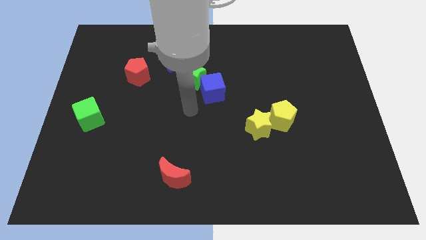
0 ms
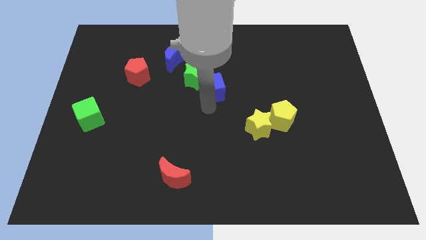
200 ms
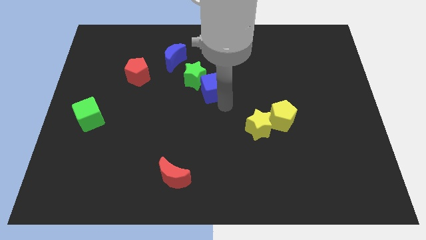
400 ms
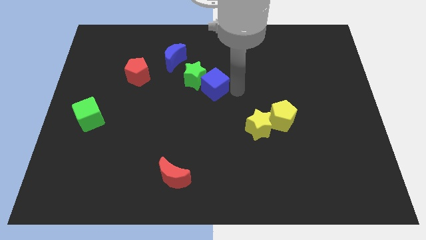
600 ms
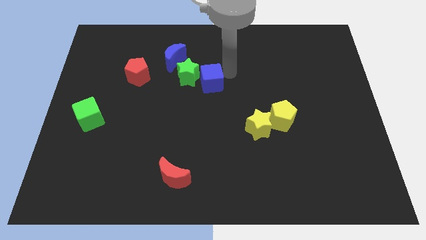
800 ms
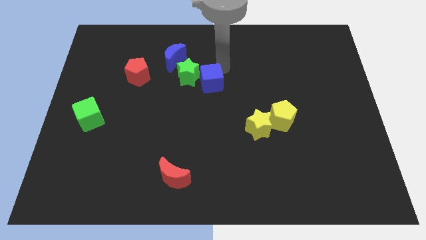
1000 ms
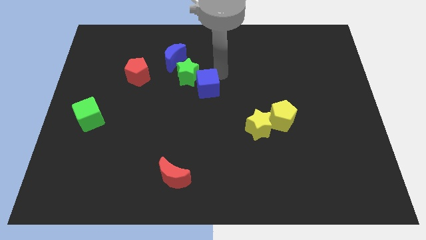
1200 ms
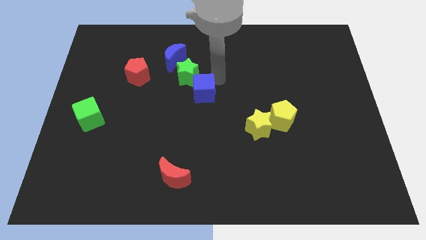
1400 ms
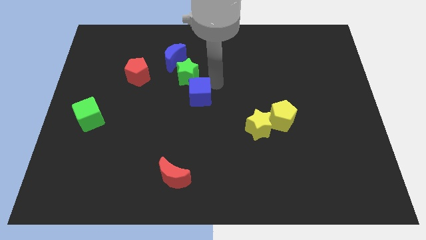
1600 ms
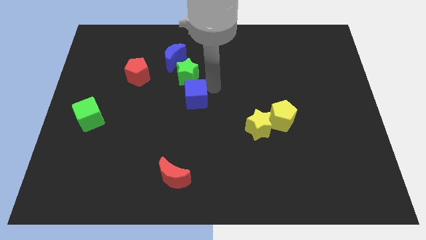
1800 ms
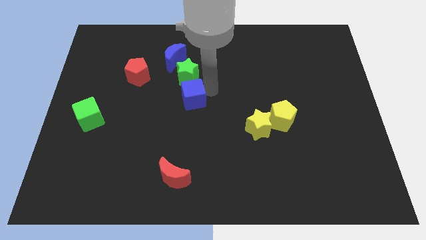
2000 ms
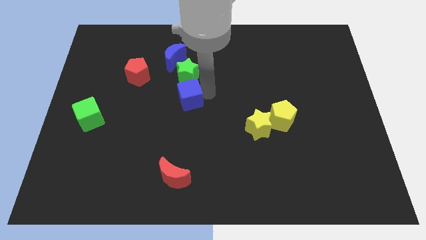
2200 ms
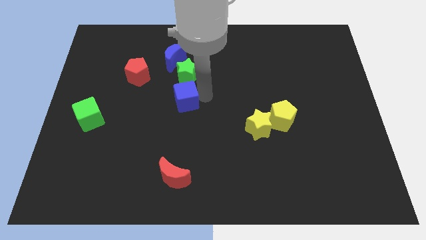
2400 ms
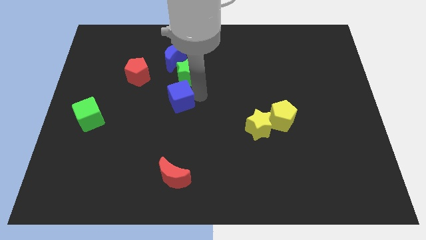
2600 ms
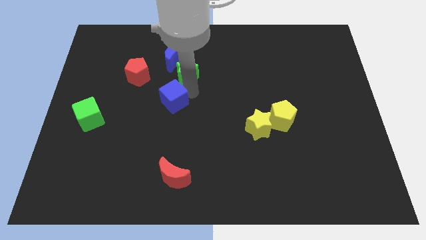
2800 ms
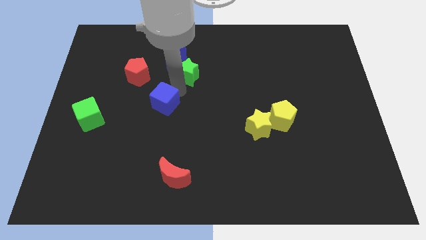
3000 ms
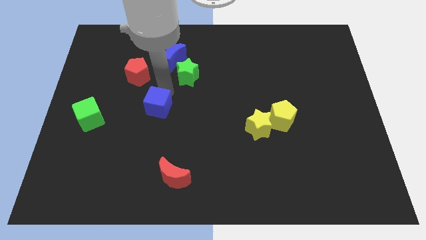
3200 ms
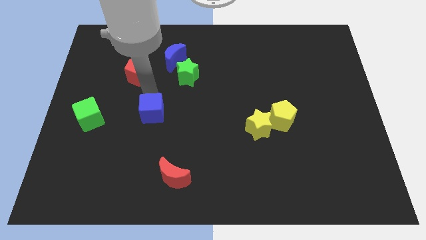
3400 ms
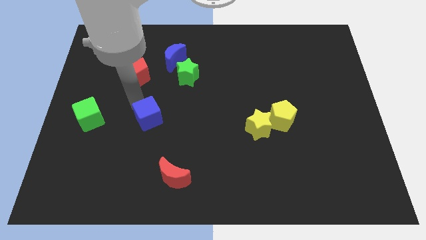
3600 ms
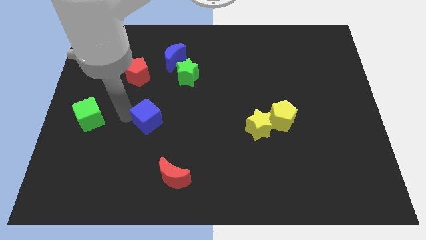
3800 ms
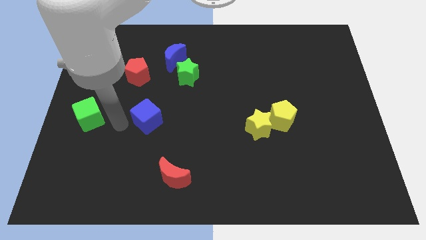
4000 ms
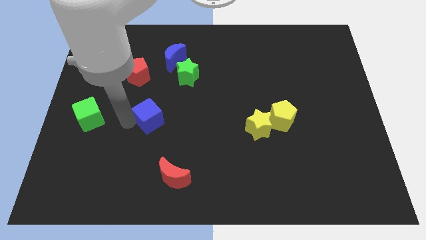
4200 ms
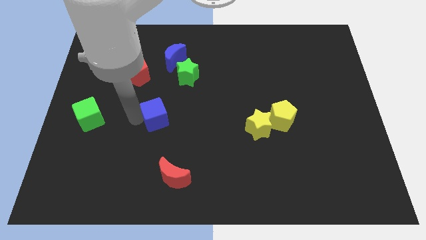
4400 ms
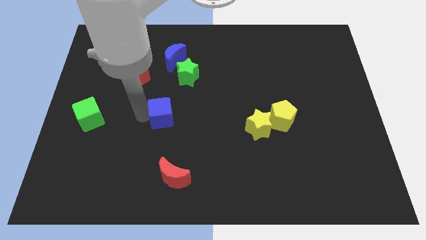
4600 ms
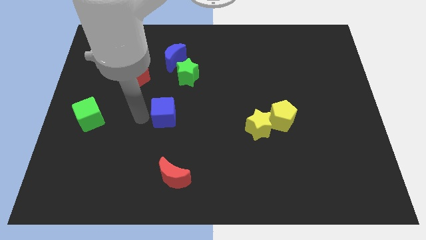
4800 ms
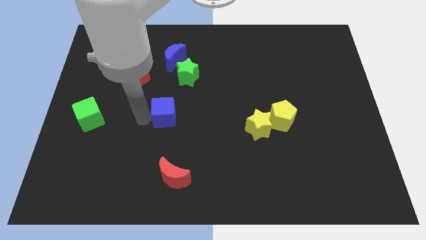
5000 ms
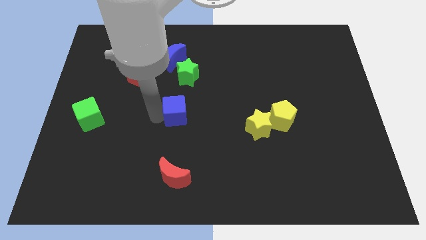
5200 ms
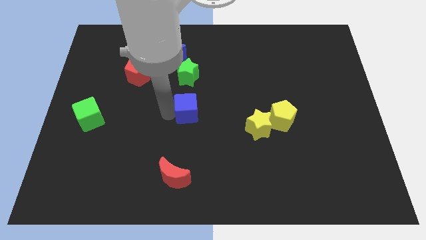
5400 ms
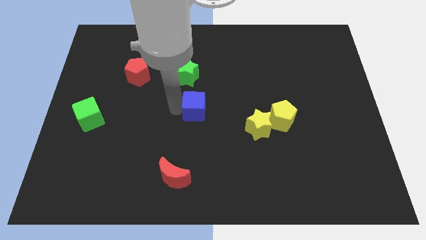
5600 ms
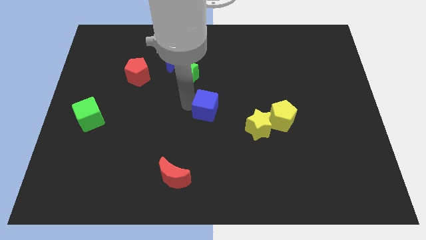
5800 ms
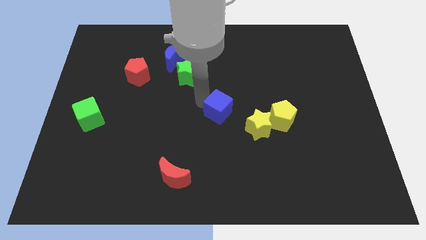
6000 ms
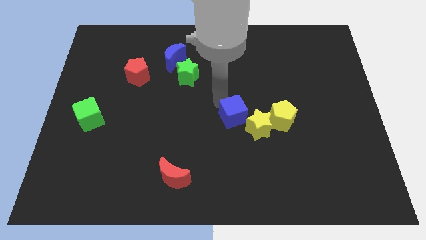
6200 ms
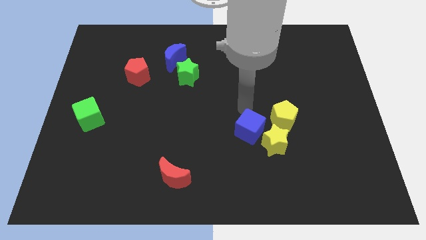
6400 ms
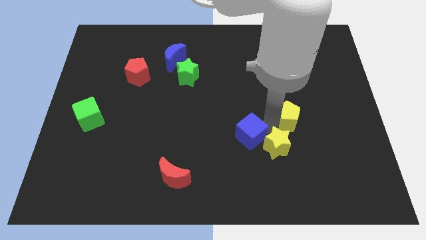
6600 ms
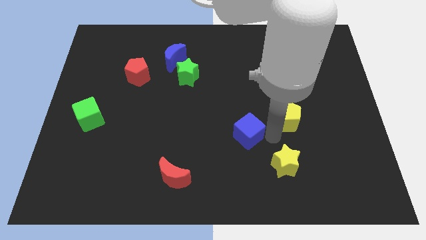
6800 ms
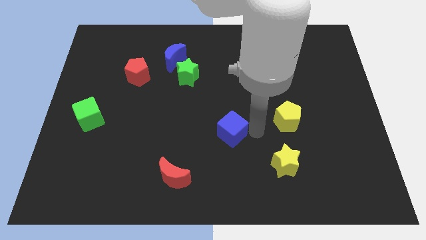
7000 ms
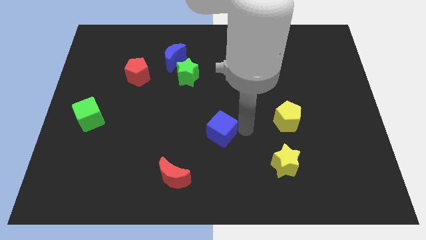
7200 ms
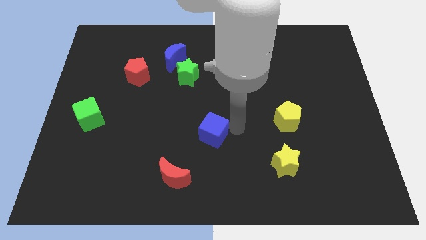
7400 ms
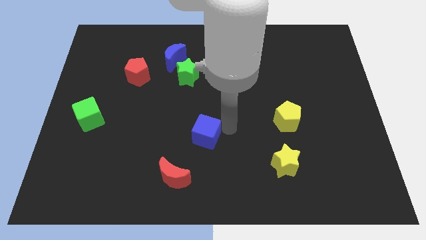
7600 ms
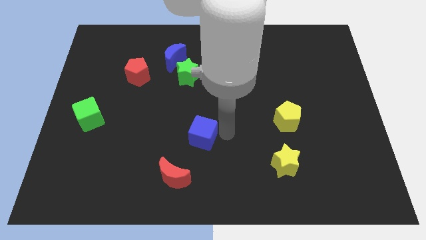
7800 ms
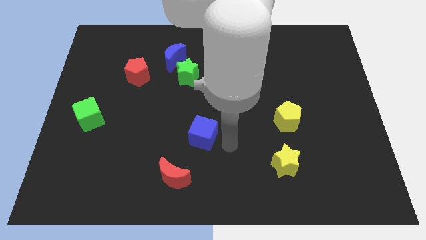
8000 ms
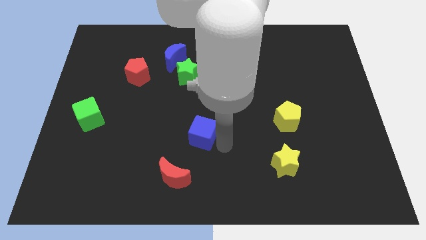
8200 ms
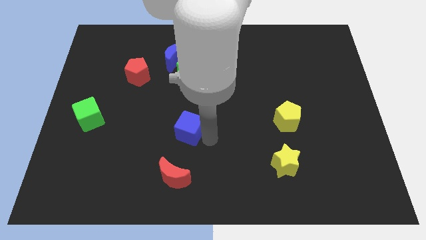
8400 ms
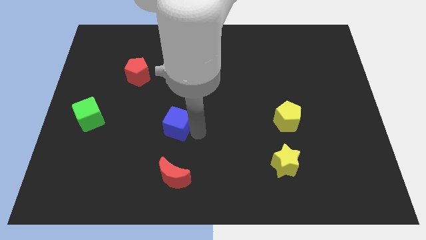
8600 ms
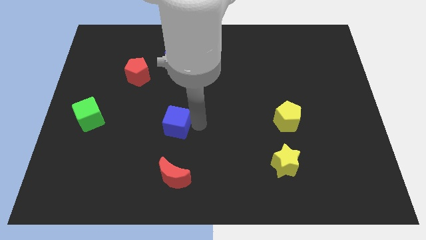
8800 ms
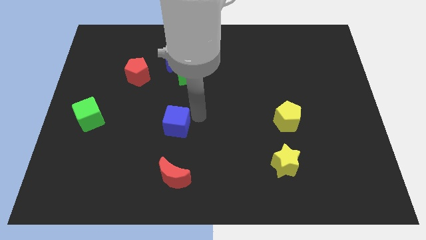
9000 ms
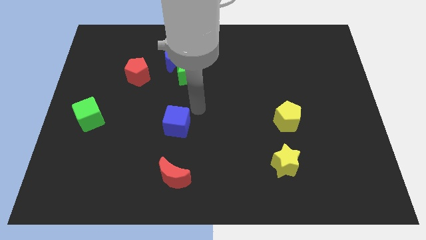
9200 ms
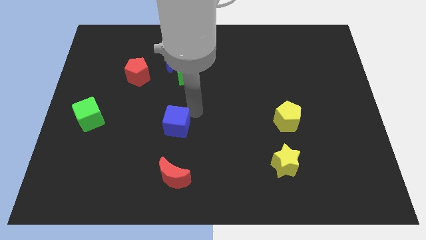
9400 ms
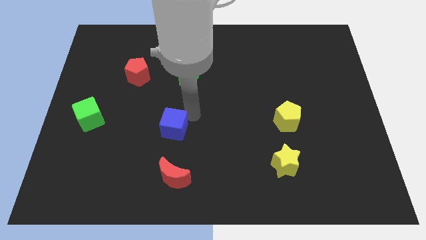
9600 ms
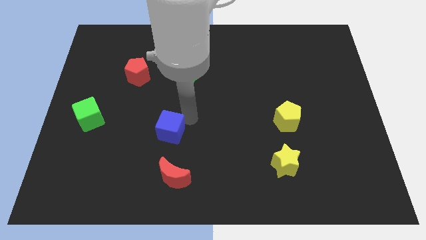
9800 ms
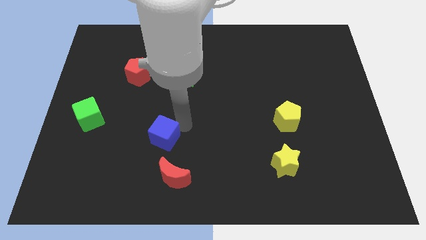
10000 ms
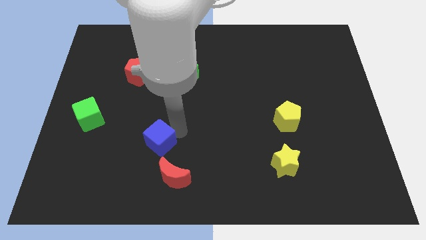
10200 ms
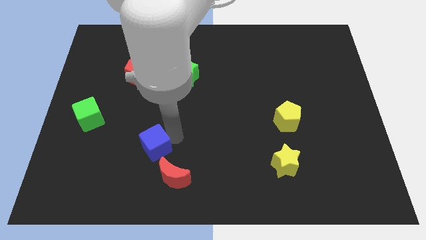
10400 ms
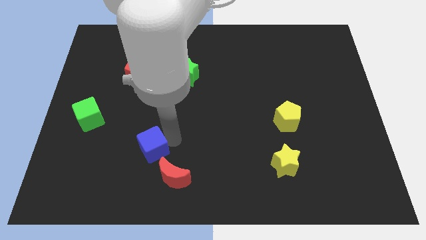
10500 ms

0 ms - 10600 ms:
push the blue cube down and to the left diagonally

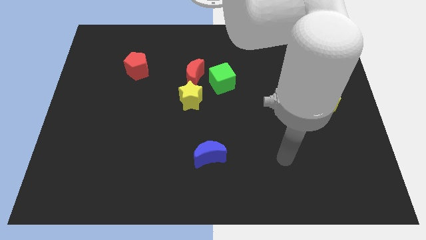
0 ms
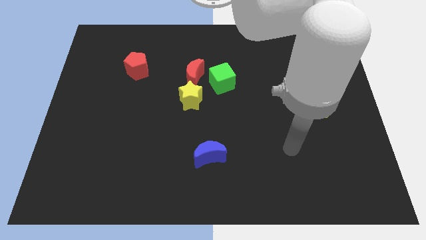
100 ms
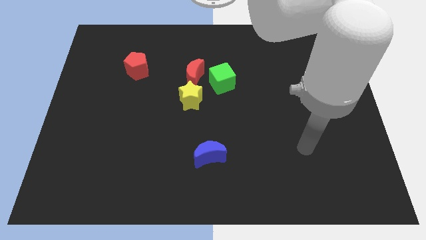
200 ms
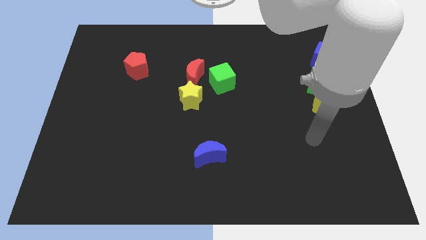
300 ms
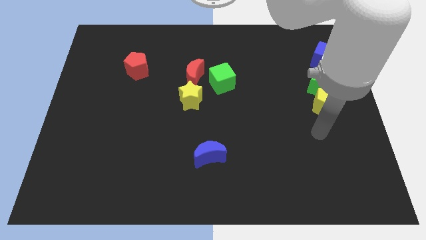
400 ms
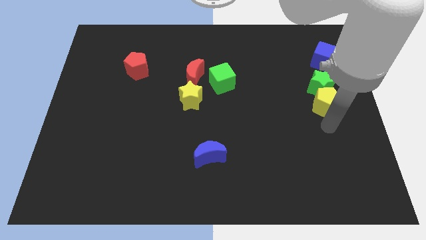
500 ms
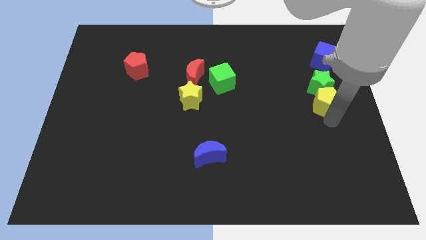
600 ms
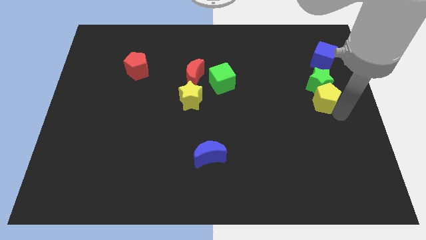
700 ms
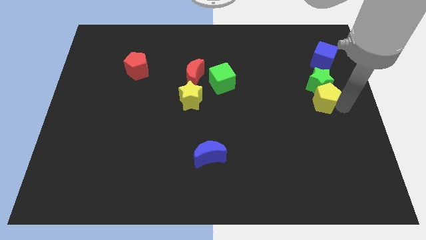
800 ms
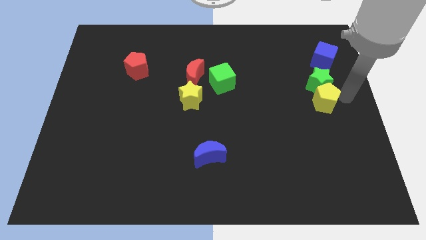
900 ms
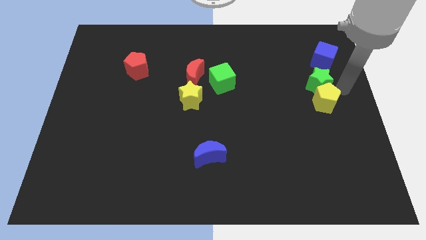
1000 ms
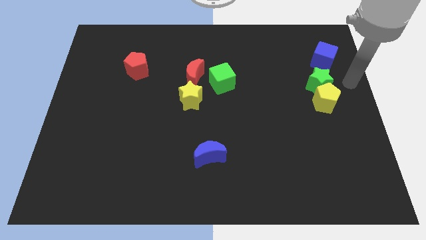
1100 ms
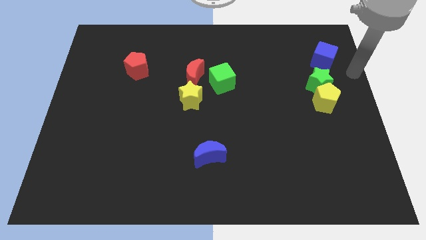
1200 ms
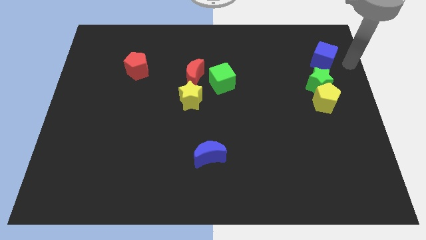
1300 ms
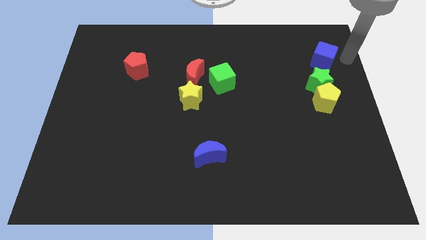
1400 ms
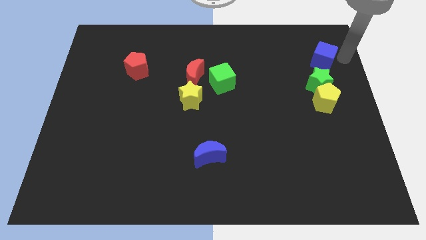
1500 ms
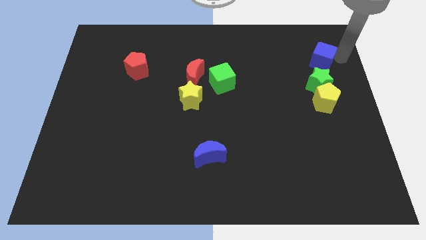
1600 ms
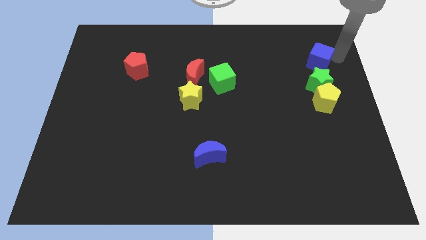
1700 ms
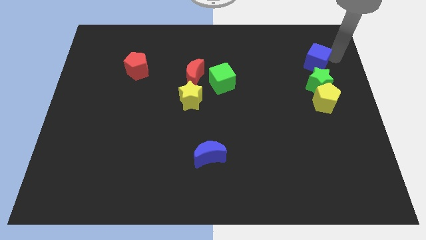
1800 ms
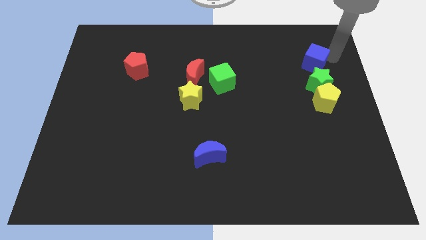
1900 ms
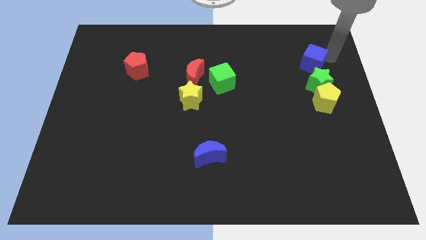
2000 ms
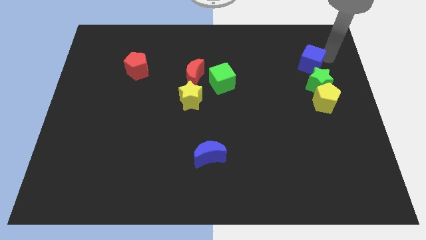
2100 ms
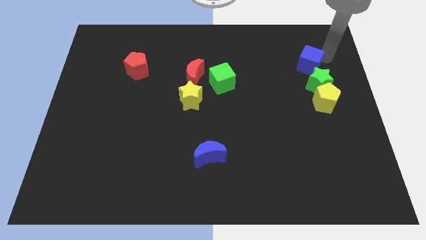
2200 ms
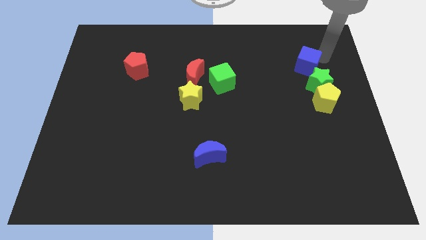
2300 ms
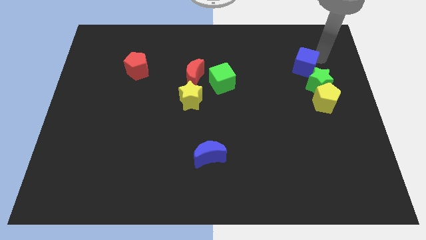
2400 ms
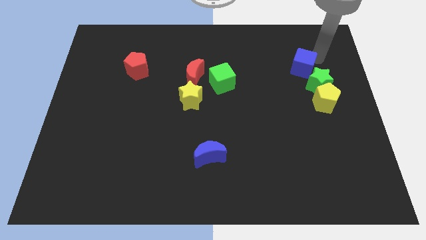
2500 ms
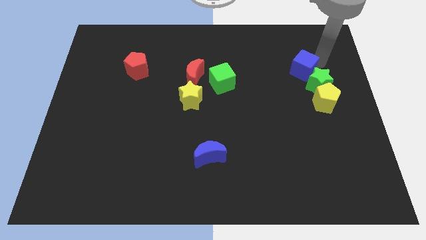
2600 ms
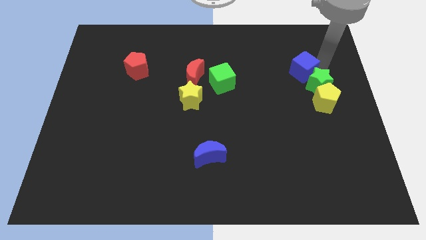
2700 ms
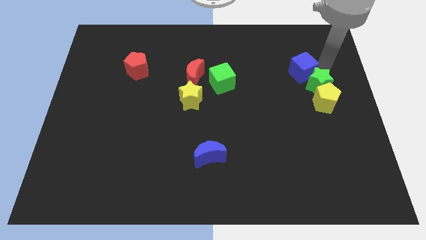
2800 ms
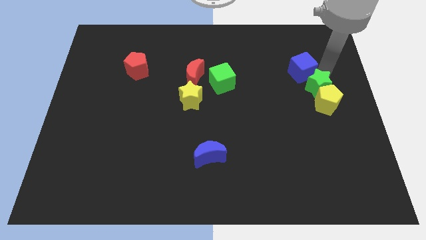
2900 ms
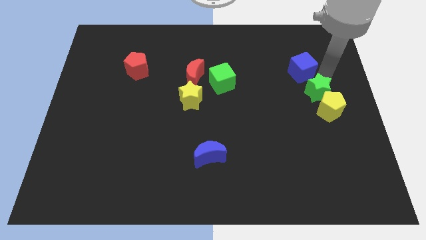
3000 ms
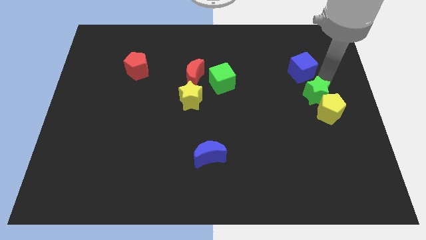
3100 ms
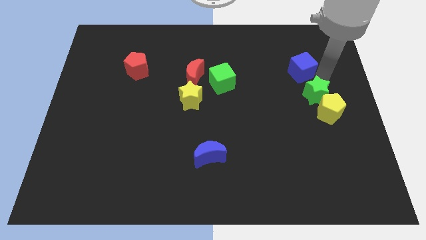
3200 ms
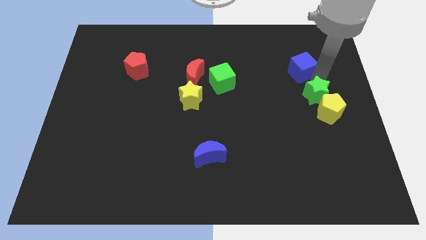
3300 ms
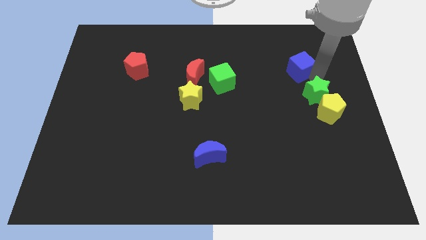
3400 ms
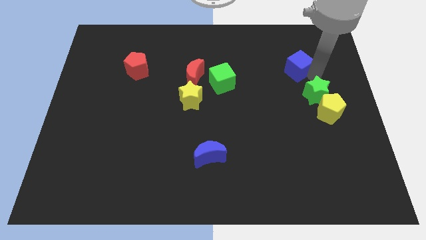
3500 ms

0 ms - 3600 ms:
move the blue cube a little bit to the left
